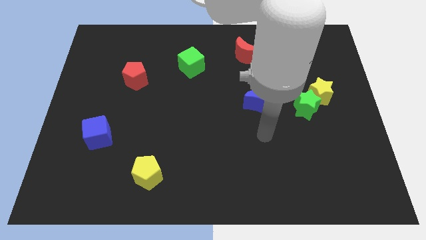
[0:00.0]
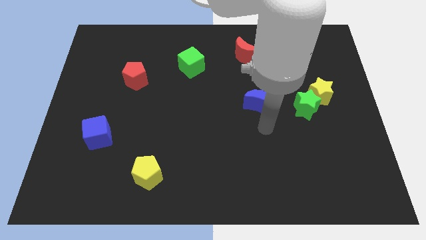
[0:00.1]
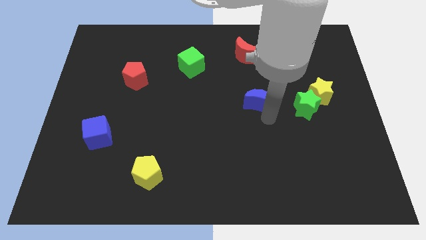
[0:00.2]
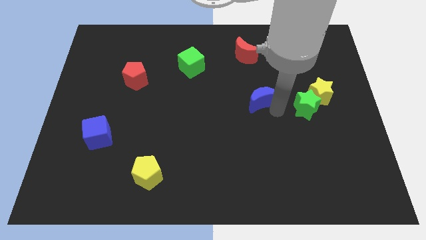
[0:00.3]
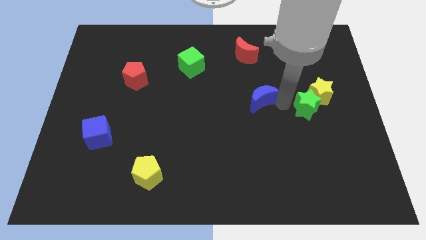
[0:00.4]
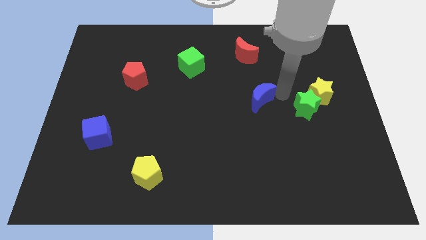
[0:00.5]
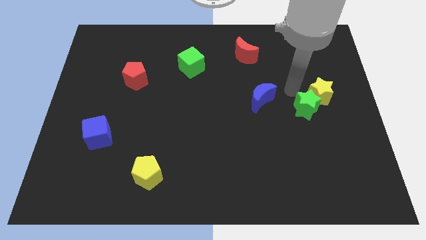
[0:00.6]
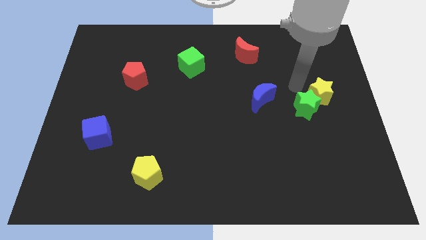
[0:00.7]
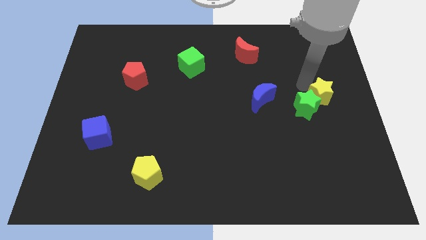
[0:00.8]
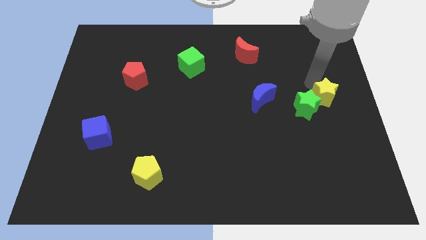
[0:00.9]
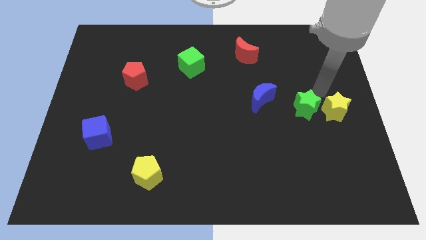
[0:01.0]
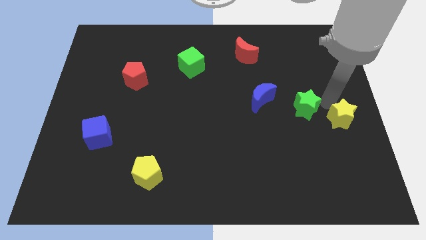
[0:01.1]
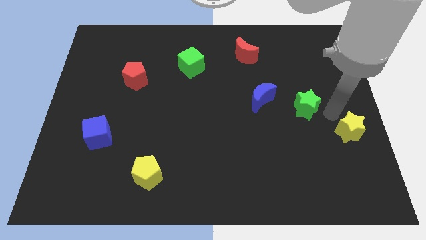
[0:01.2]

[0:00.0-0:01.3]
move the green star away from the yellow star

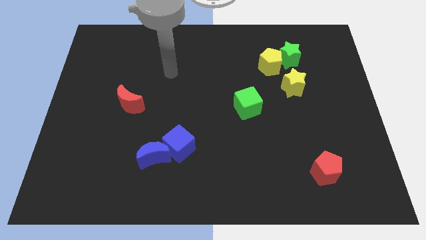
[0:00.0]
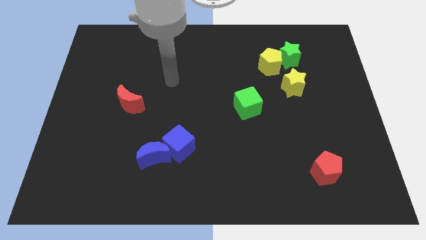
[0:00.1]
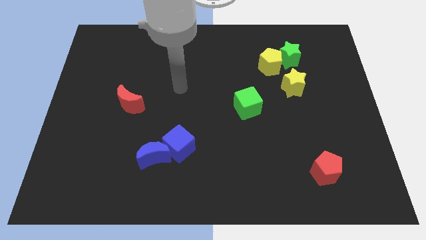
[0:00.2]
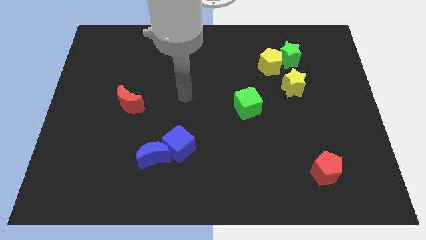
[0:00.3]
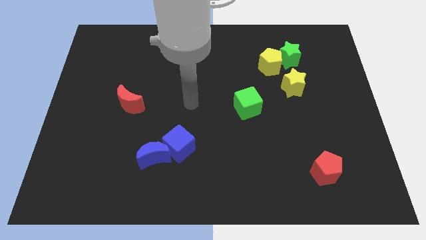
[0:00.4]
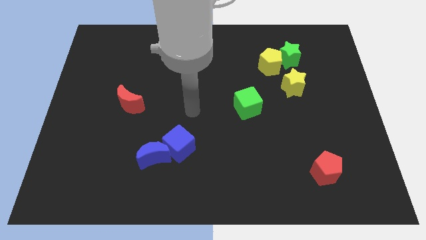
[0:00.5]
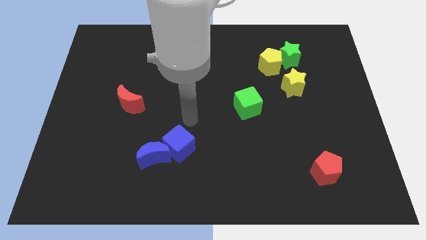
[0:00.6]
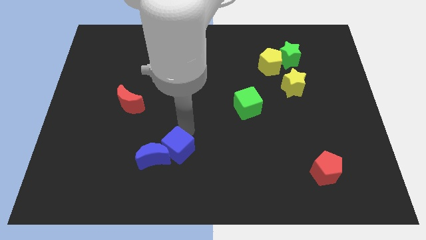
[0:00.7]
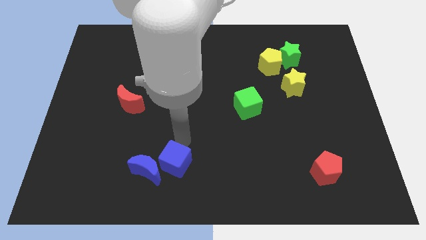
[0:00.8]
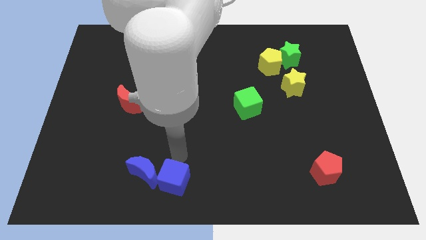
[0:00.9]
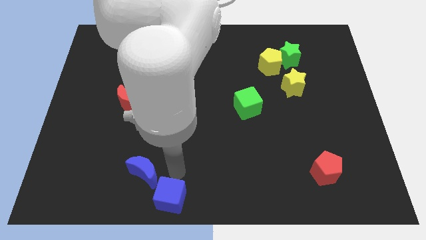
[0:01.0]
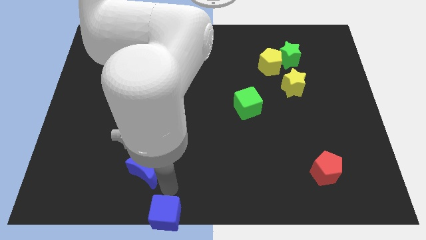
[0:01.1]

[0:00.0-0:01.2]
separate the blue moon from the blue cube

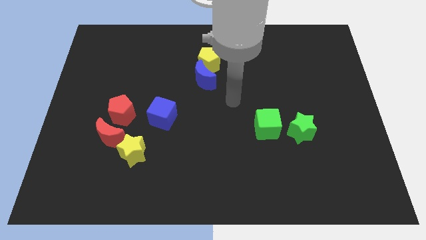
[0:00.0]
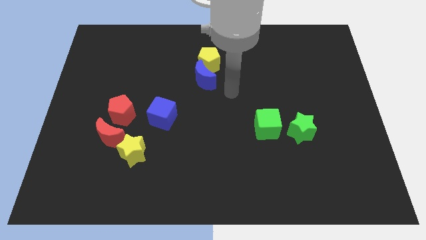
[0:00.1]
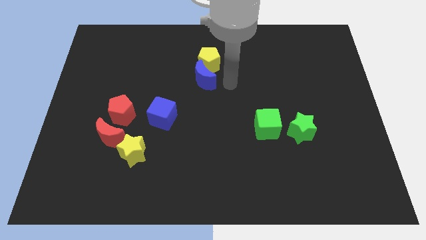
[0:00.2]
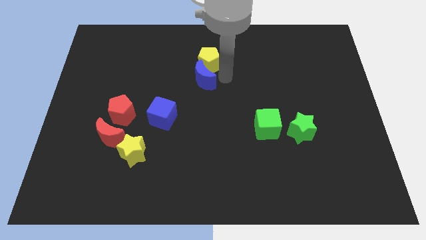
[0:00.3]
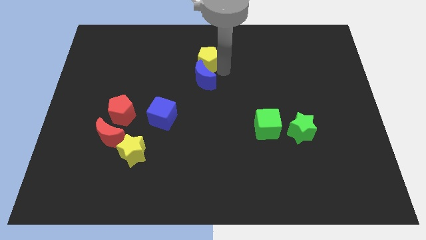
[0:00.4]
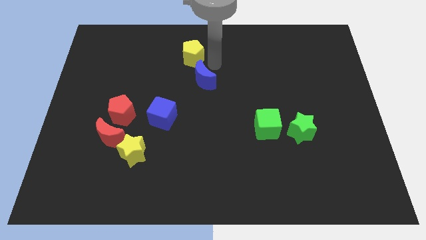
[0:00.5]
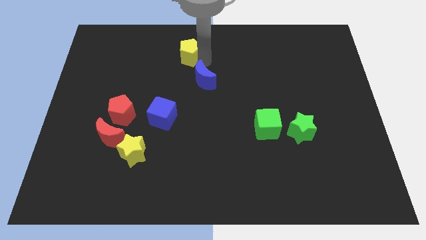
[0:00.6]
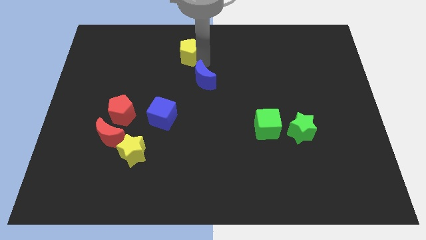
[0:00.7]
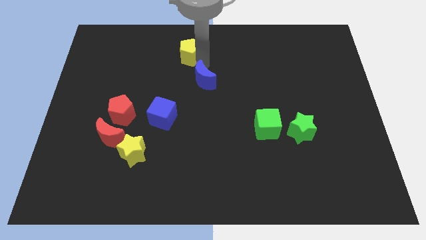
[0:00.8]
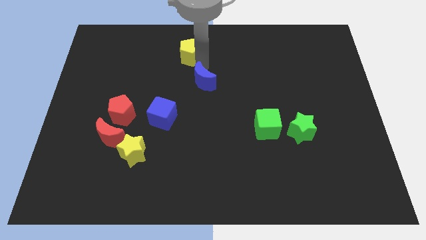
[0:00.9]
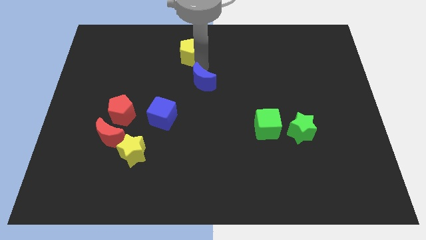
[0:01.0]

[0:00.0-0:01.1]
move the blue moon away from the yellow pentagon

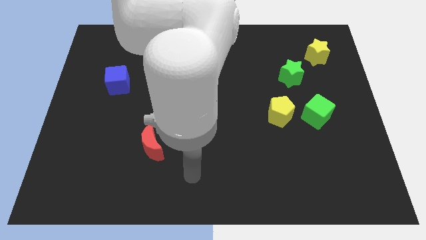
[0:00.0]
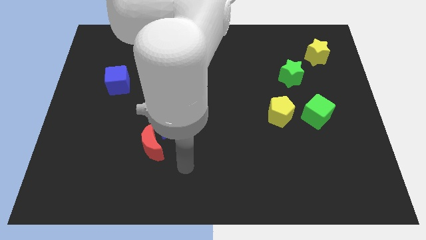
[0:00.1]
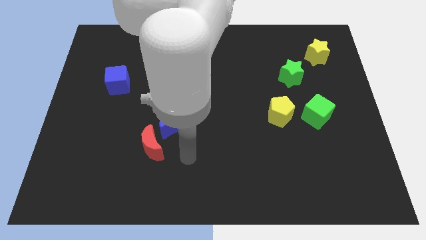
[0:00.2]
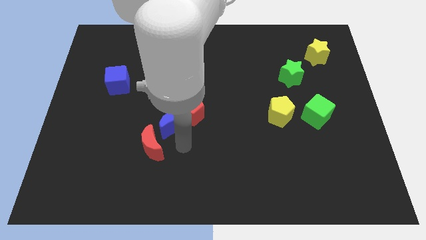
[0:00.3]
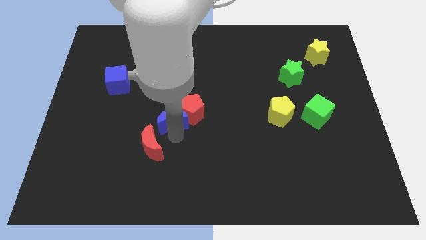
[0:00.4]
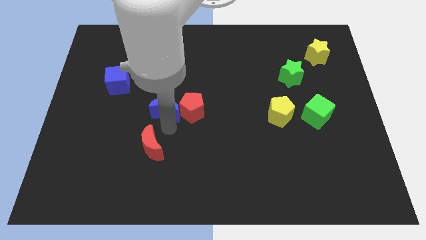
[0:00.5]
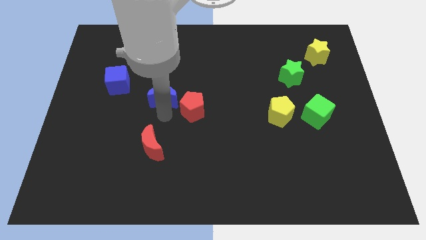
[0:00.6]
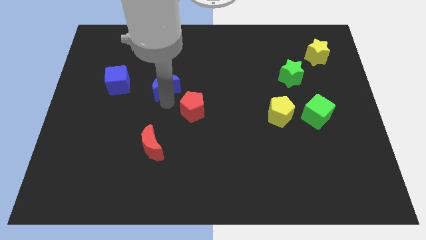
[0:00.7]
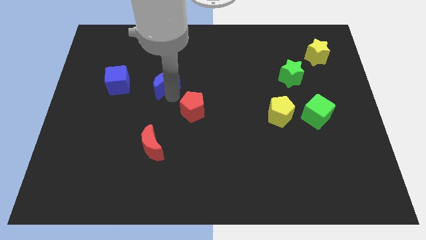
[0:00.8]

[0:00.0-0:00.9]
pull the red pentagon apart from the blue moon

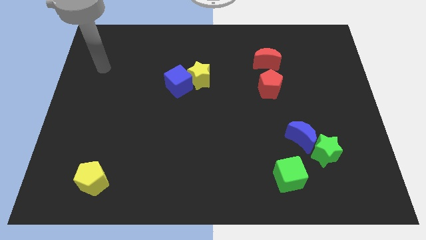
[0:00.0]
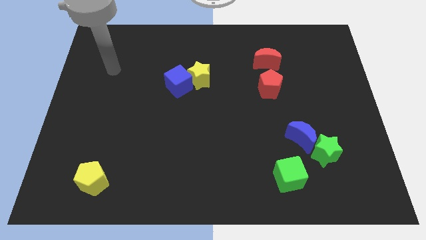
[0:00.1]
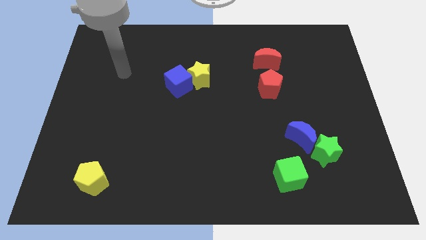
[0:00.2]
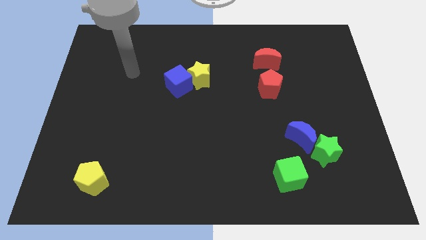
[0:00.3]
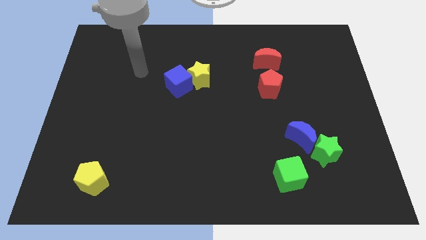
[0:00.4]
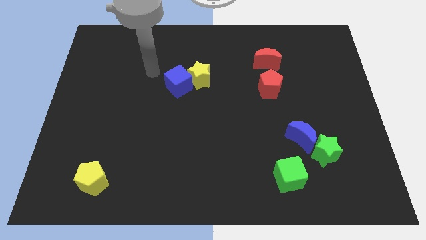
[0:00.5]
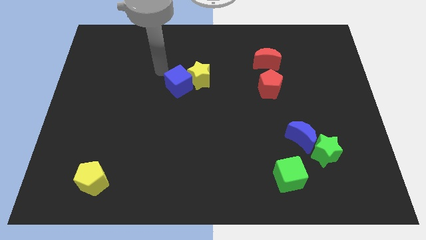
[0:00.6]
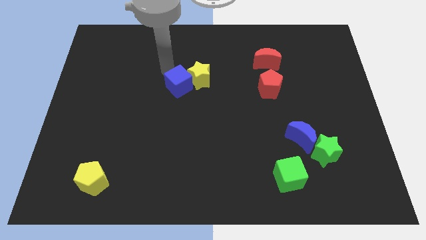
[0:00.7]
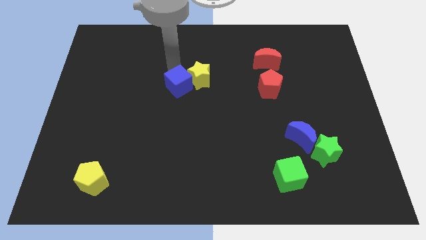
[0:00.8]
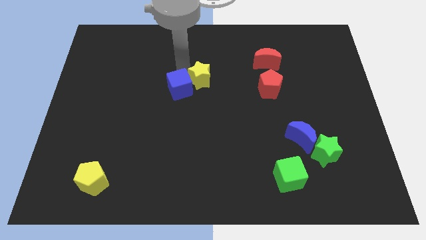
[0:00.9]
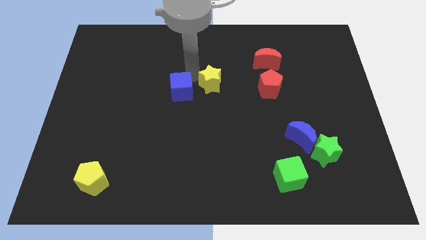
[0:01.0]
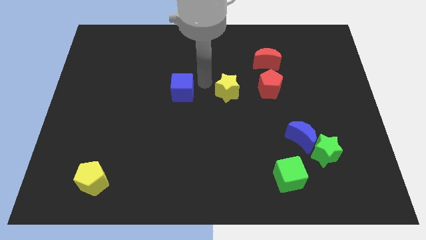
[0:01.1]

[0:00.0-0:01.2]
separate the blue cube from the yellow star

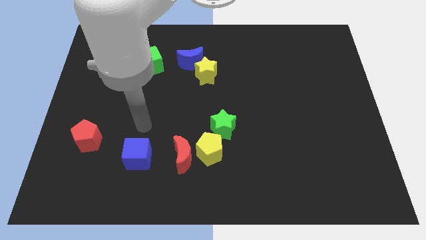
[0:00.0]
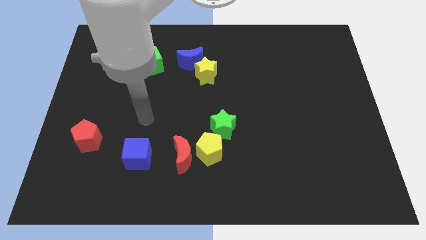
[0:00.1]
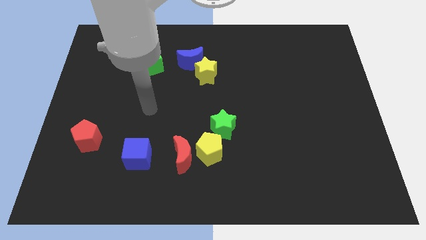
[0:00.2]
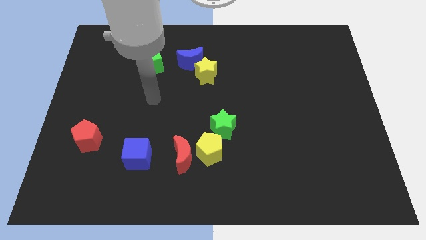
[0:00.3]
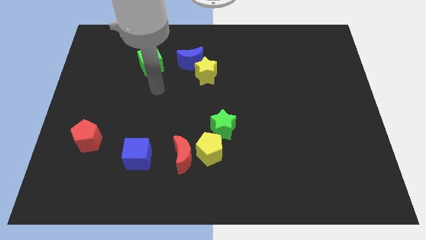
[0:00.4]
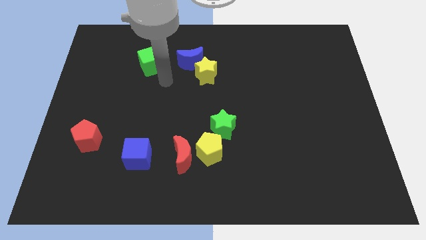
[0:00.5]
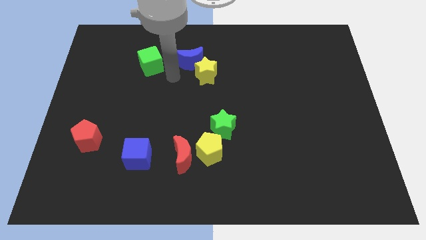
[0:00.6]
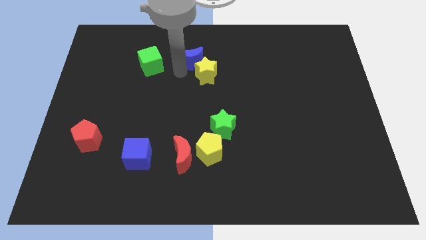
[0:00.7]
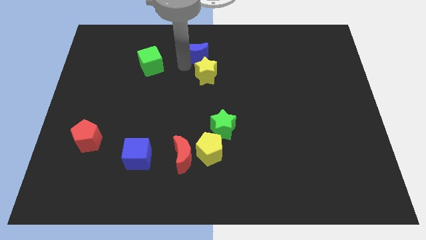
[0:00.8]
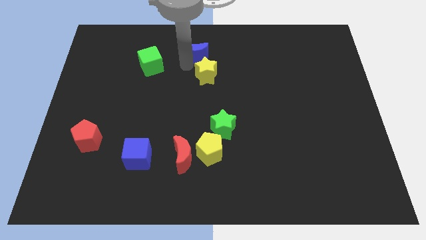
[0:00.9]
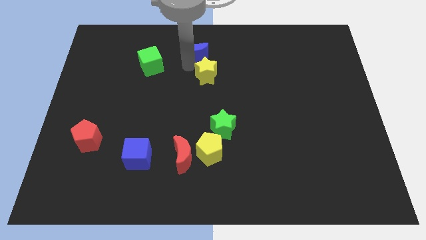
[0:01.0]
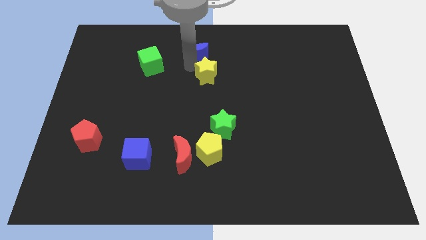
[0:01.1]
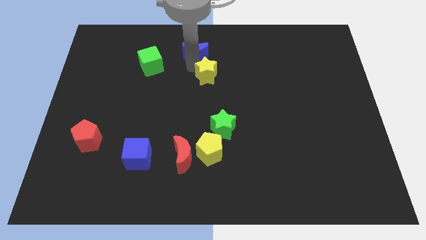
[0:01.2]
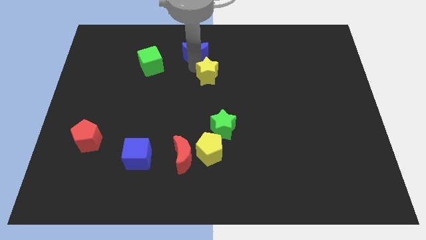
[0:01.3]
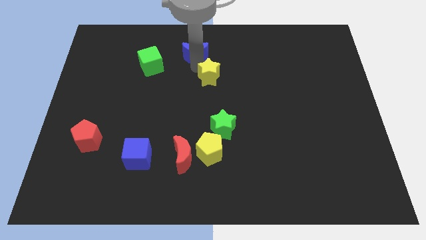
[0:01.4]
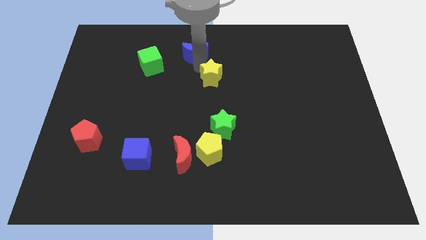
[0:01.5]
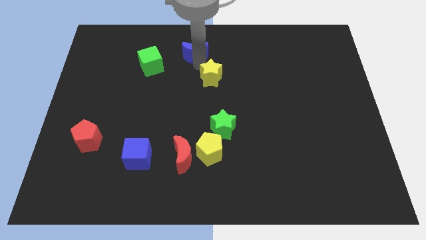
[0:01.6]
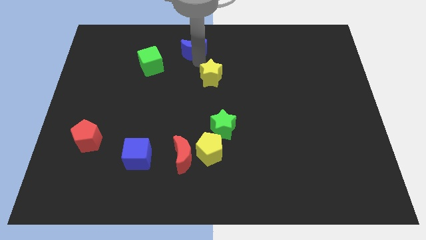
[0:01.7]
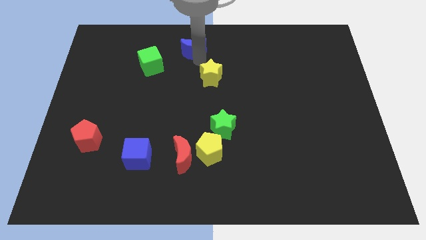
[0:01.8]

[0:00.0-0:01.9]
separate the yellow star from the blue moon

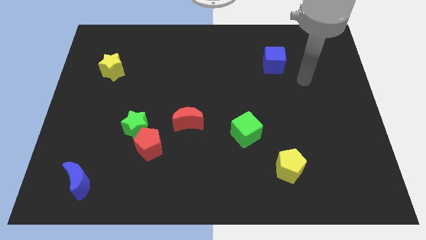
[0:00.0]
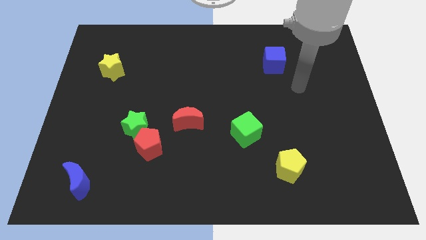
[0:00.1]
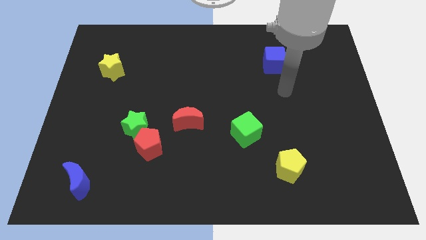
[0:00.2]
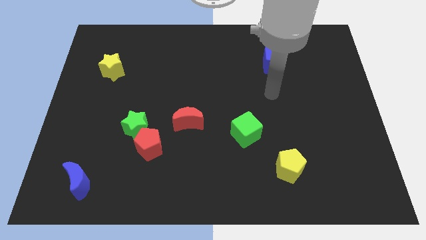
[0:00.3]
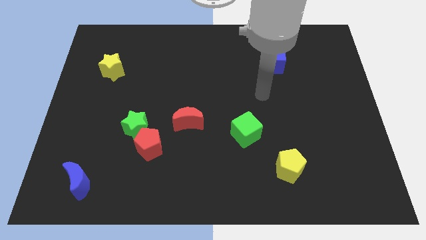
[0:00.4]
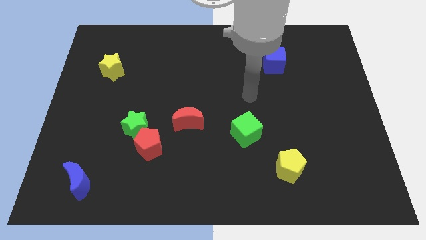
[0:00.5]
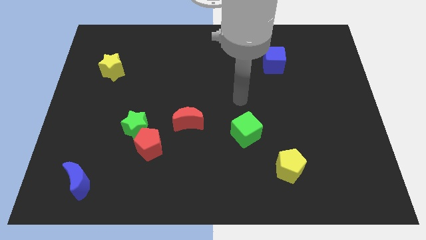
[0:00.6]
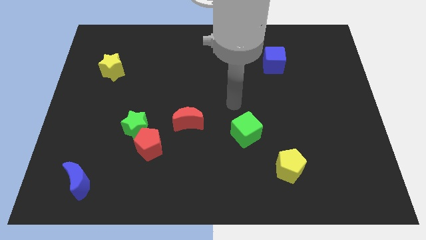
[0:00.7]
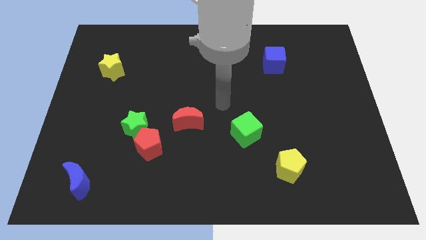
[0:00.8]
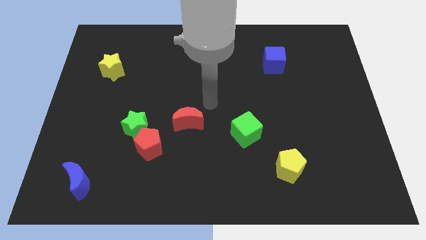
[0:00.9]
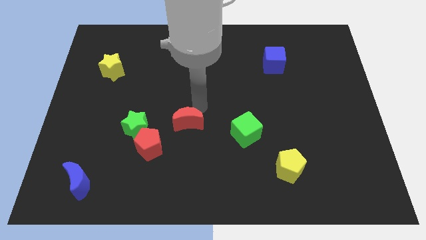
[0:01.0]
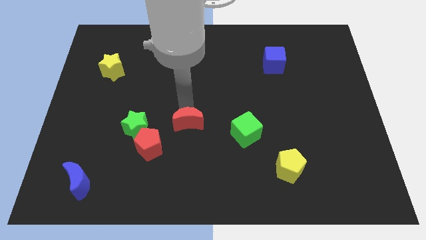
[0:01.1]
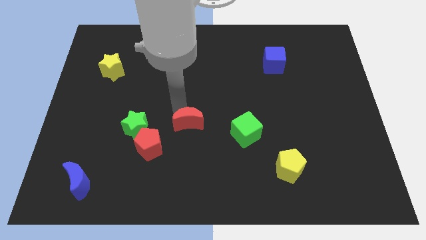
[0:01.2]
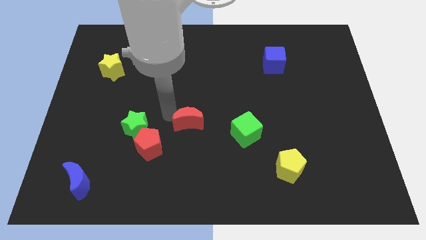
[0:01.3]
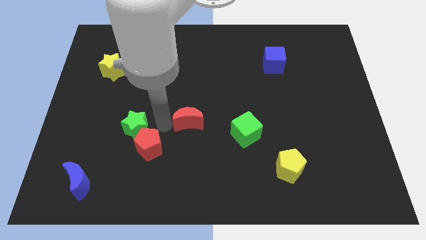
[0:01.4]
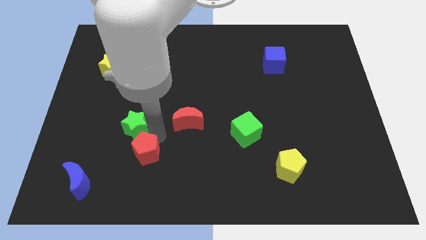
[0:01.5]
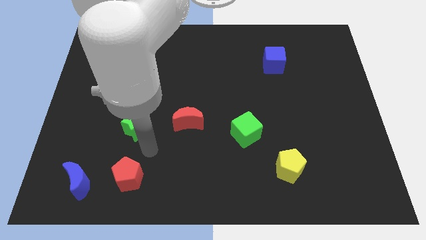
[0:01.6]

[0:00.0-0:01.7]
pull the green star apart from the red pentagon
